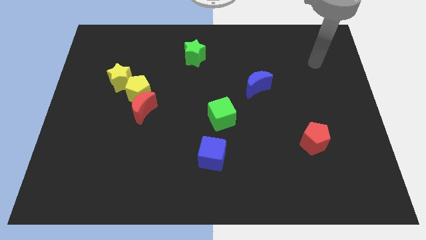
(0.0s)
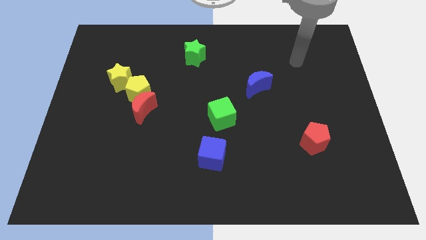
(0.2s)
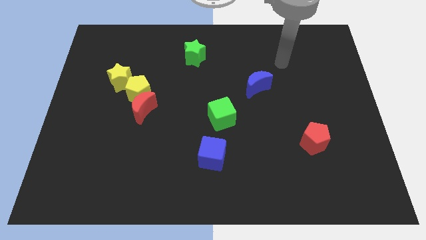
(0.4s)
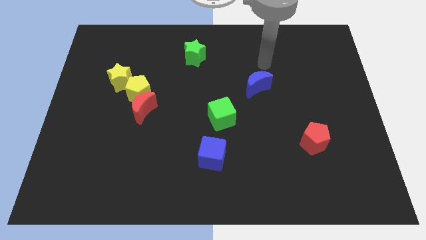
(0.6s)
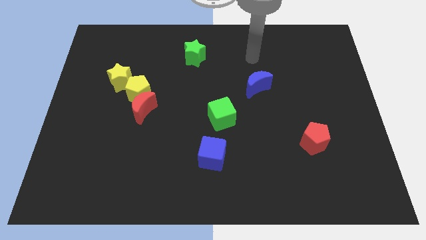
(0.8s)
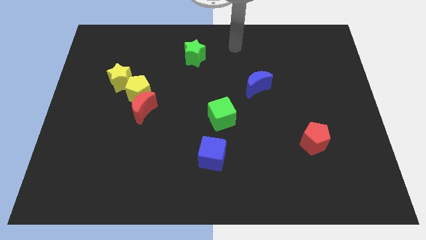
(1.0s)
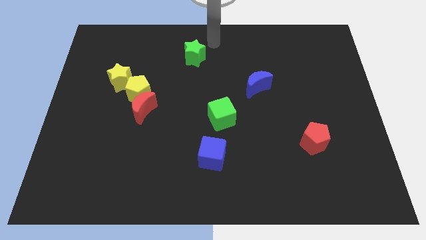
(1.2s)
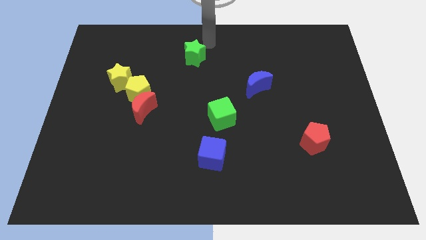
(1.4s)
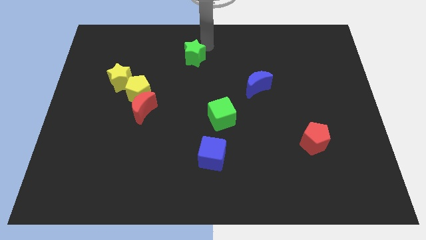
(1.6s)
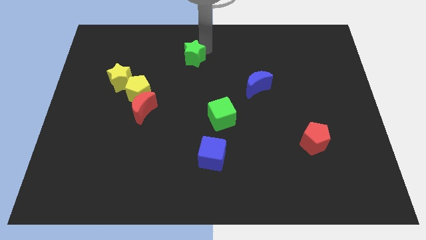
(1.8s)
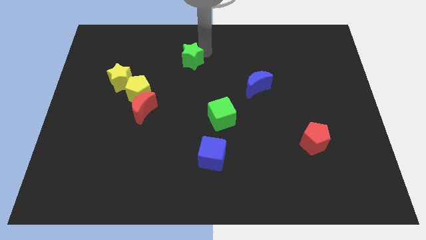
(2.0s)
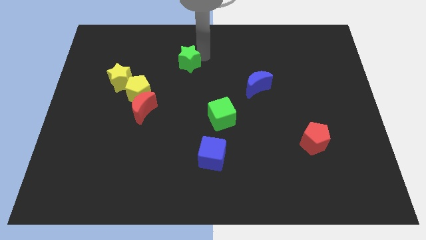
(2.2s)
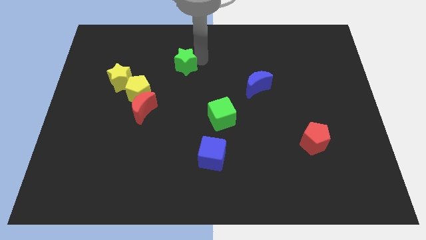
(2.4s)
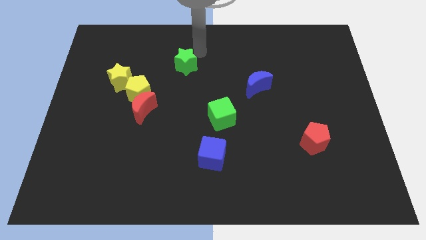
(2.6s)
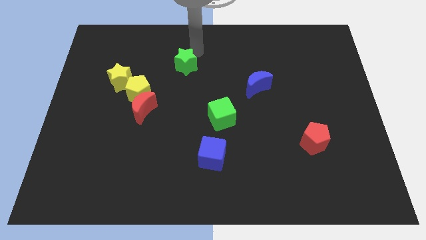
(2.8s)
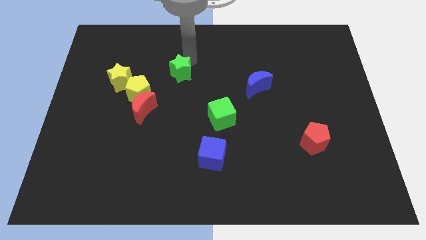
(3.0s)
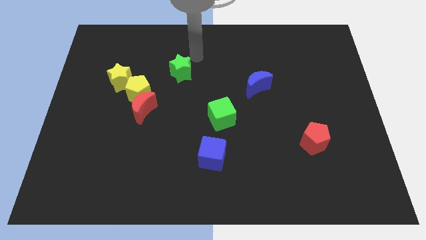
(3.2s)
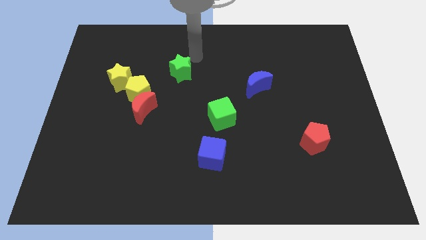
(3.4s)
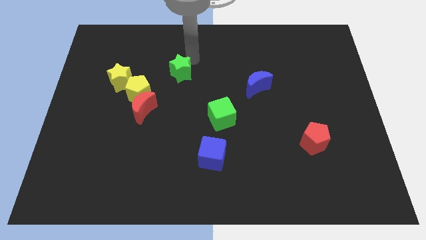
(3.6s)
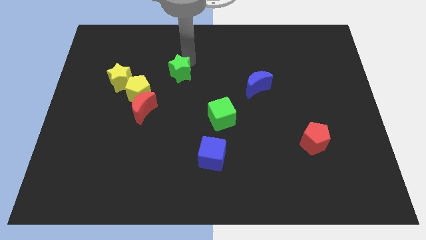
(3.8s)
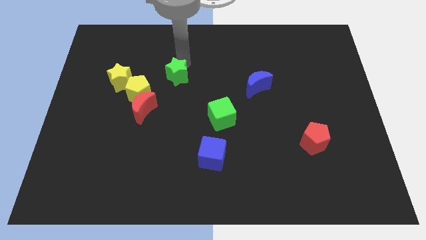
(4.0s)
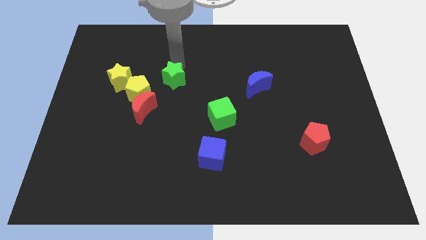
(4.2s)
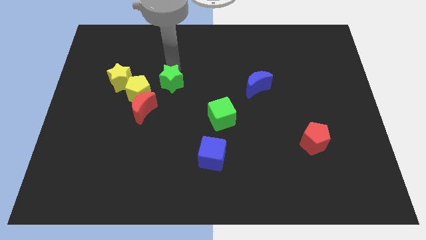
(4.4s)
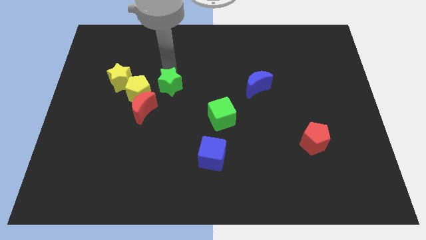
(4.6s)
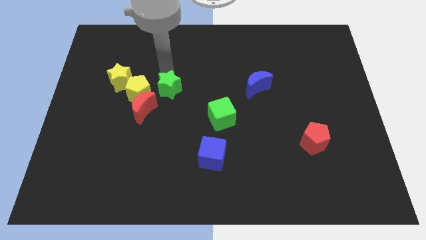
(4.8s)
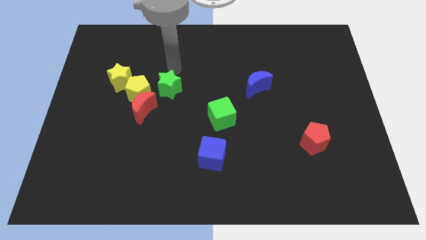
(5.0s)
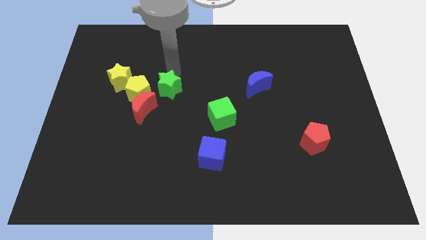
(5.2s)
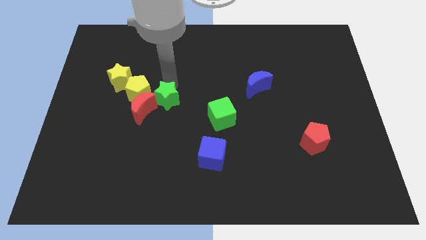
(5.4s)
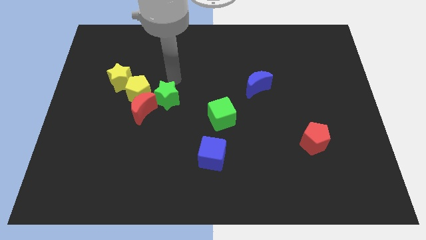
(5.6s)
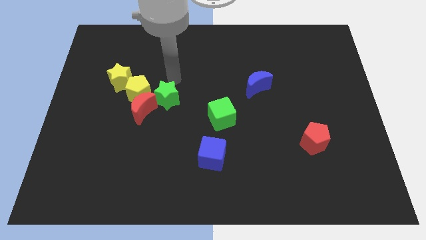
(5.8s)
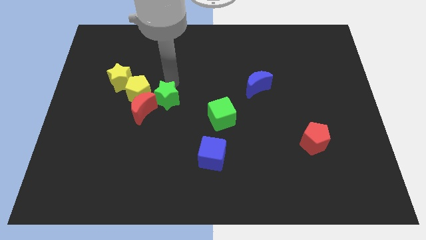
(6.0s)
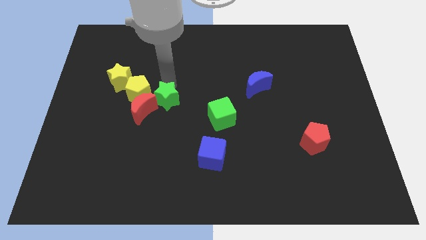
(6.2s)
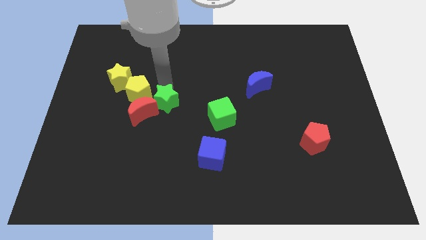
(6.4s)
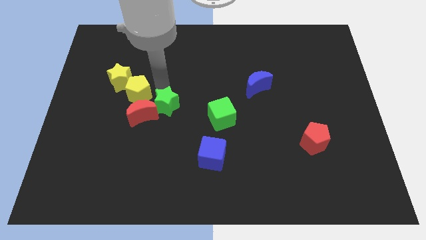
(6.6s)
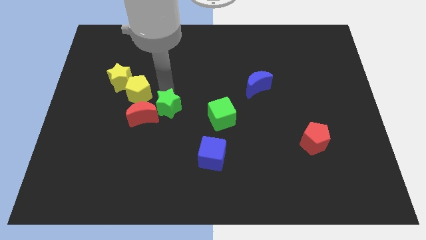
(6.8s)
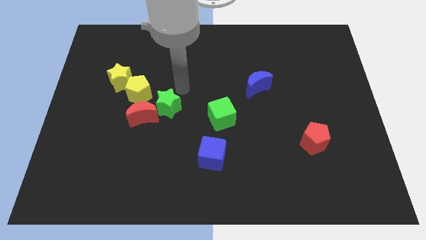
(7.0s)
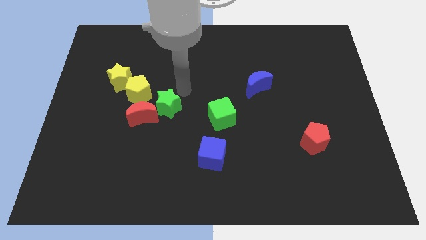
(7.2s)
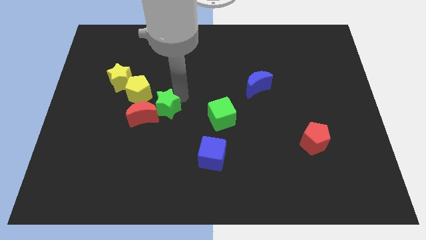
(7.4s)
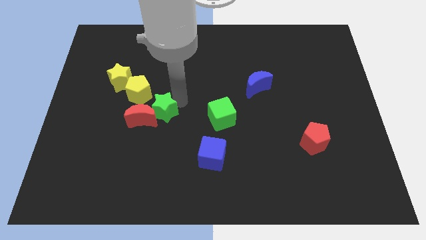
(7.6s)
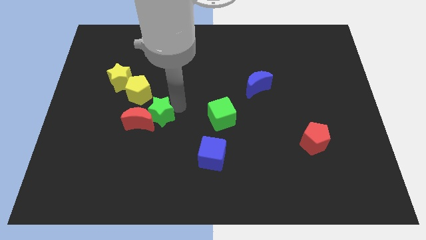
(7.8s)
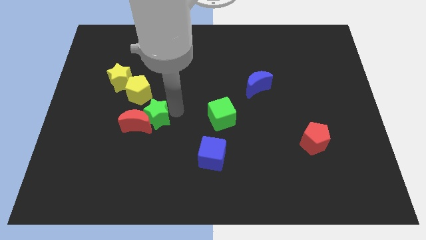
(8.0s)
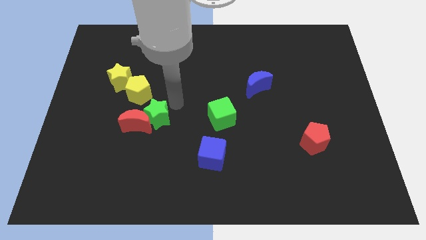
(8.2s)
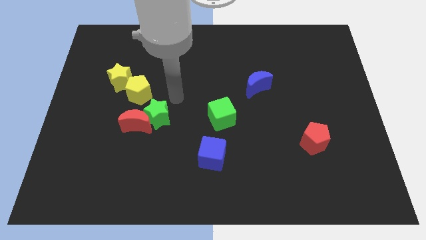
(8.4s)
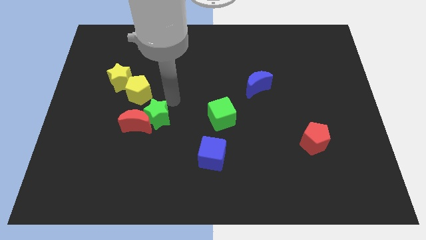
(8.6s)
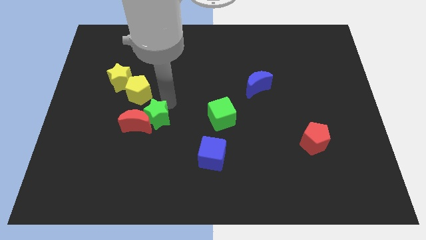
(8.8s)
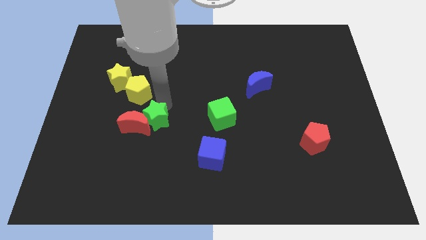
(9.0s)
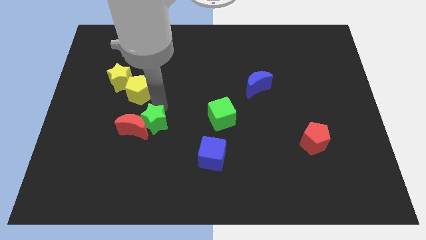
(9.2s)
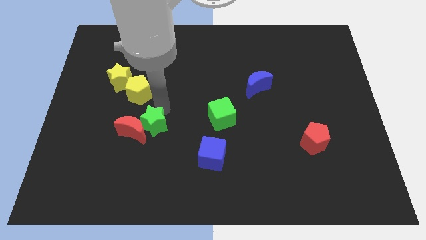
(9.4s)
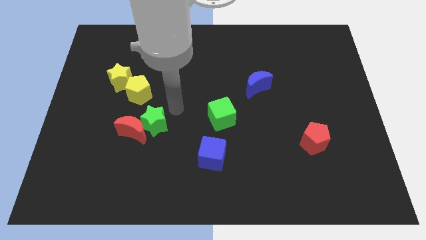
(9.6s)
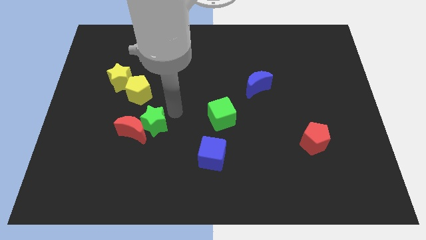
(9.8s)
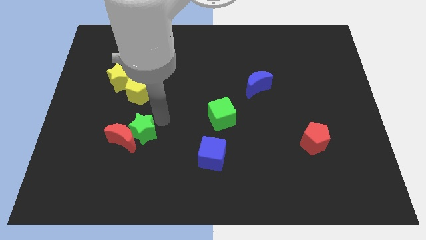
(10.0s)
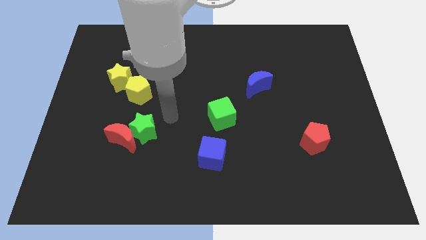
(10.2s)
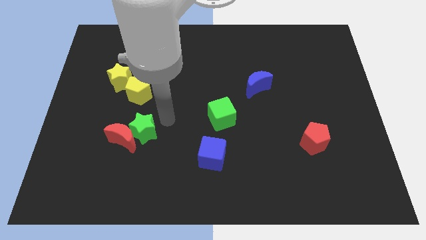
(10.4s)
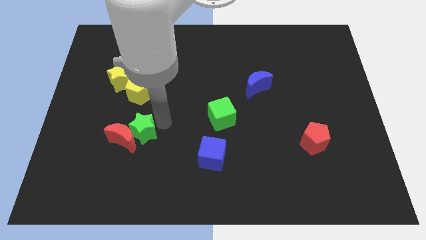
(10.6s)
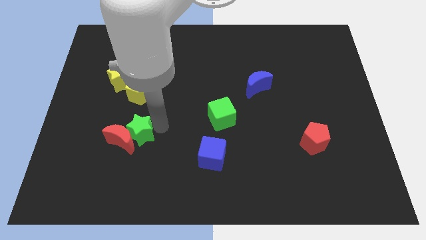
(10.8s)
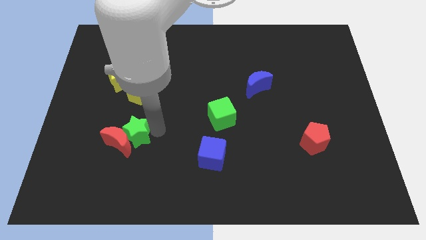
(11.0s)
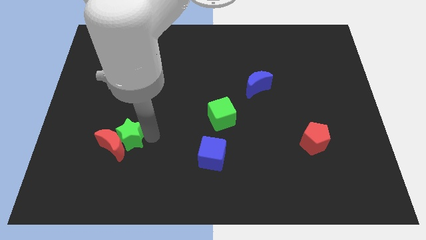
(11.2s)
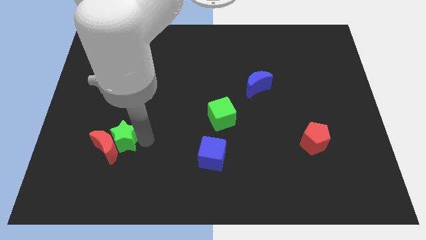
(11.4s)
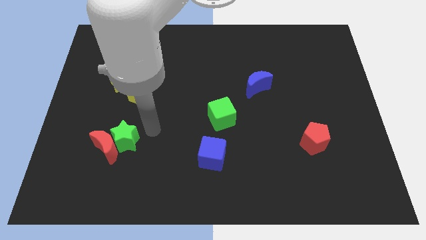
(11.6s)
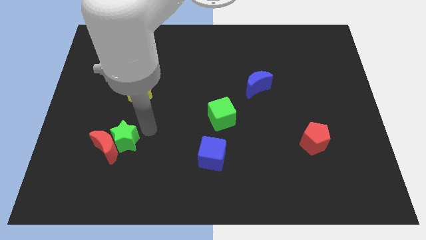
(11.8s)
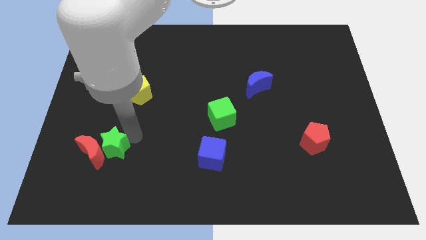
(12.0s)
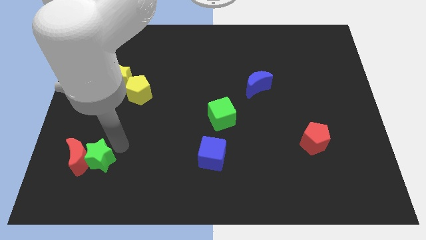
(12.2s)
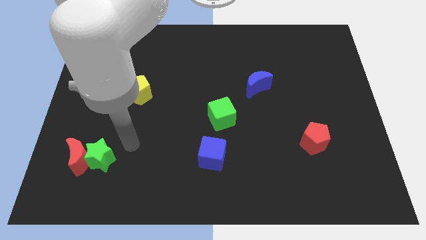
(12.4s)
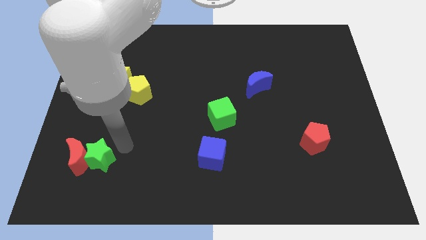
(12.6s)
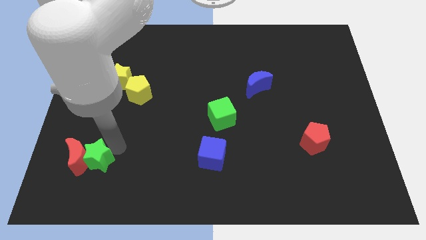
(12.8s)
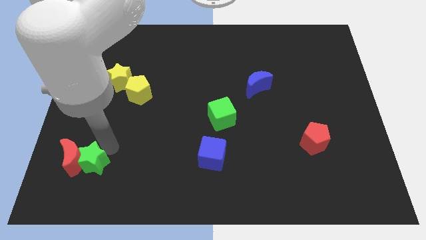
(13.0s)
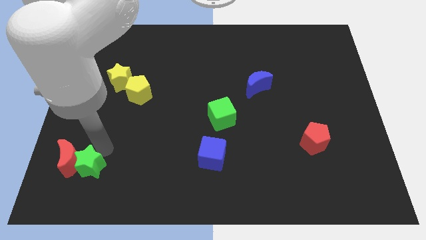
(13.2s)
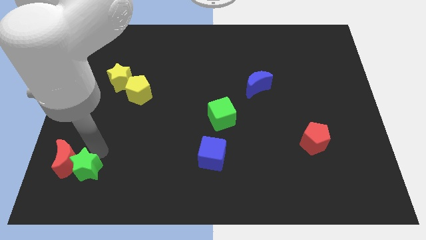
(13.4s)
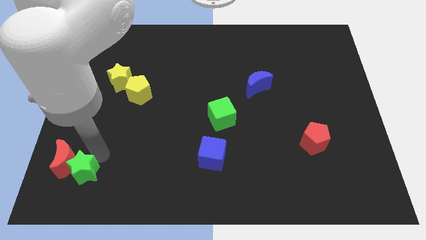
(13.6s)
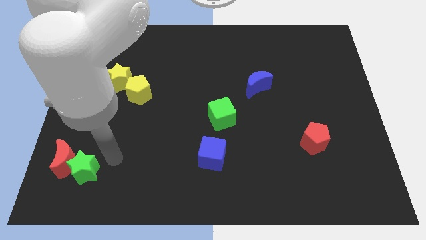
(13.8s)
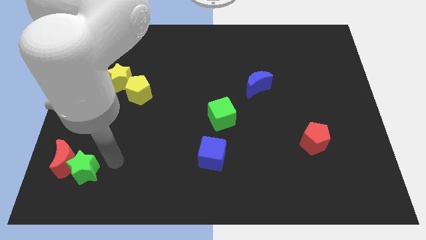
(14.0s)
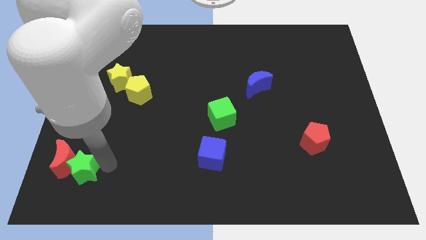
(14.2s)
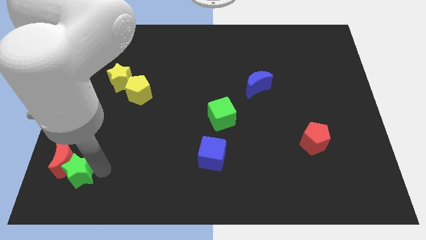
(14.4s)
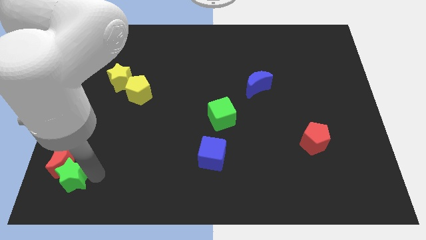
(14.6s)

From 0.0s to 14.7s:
slide the green star to the bottom left corner
